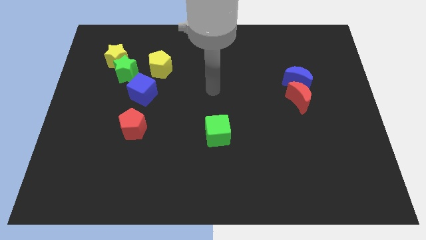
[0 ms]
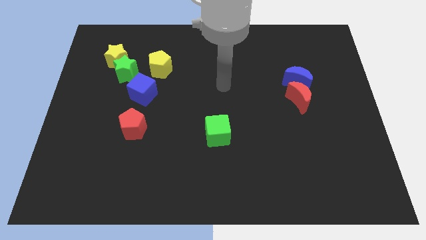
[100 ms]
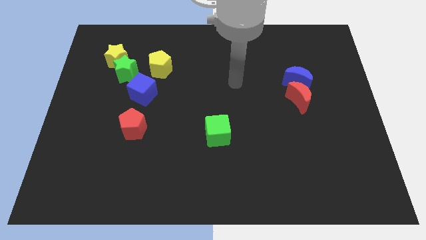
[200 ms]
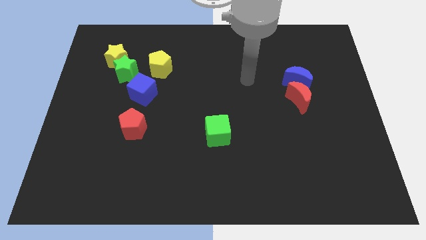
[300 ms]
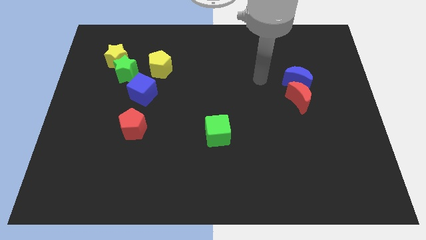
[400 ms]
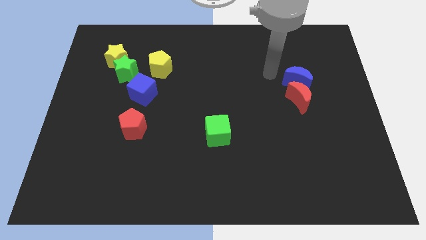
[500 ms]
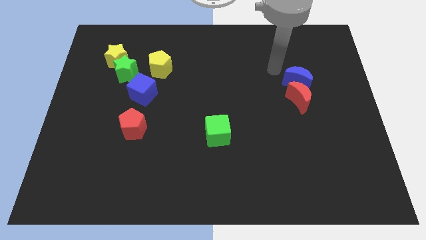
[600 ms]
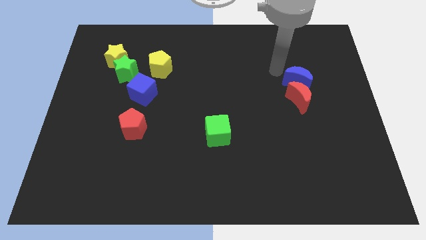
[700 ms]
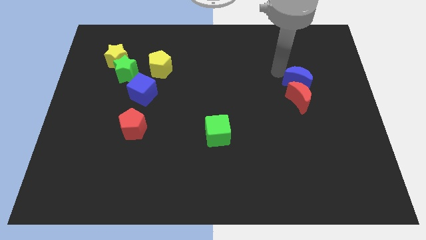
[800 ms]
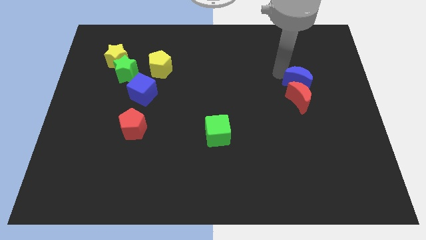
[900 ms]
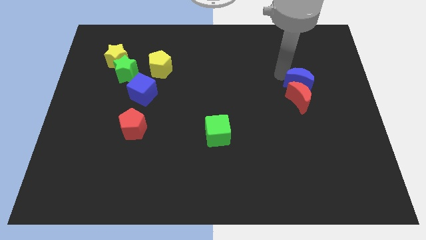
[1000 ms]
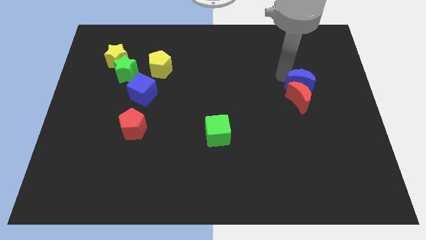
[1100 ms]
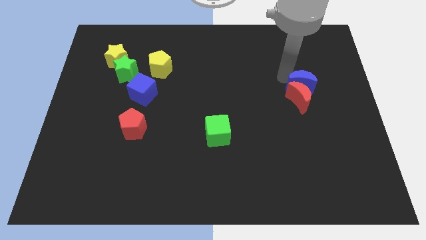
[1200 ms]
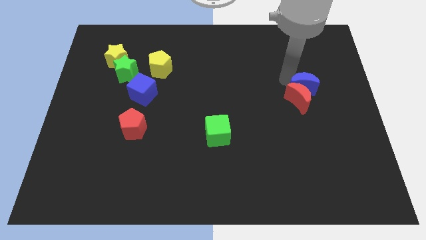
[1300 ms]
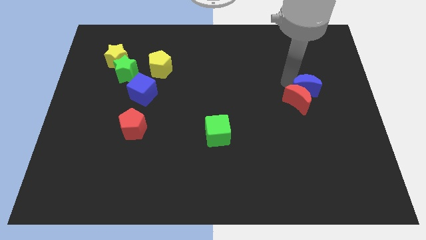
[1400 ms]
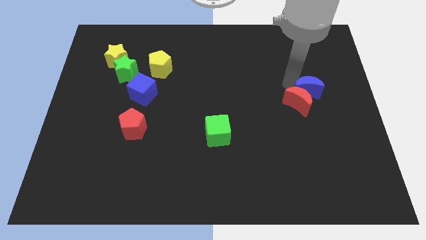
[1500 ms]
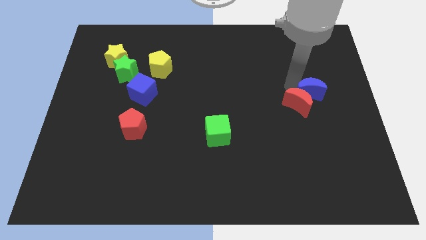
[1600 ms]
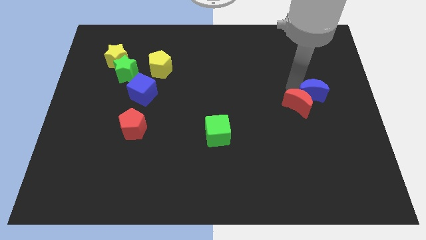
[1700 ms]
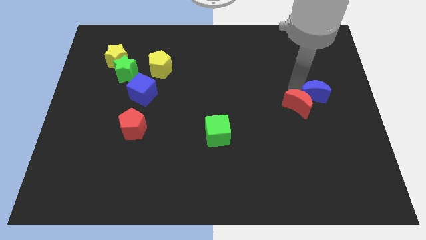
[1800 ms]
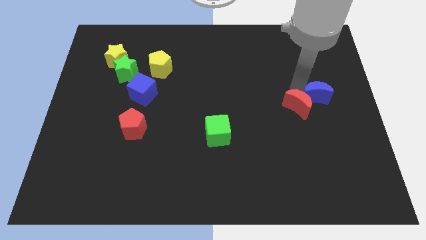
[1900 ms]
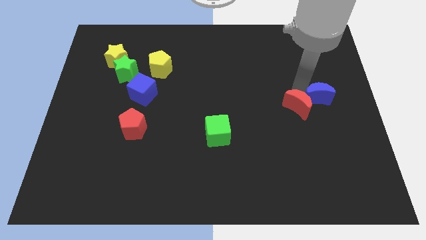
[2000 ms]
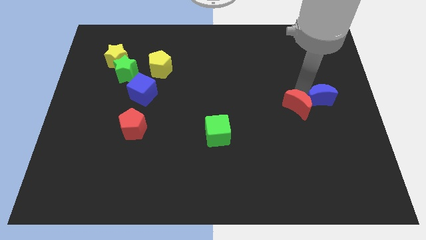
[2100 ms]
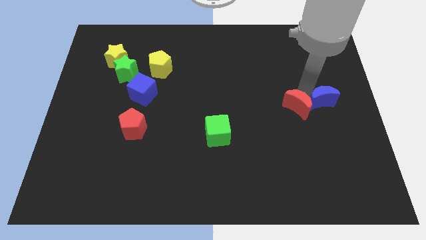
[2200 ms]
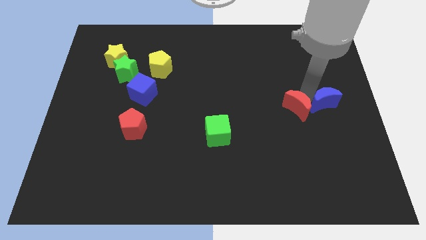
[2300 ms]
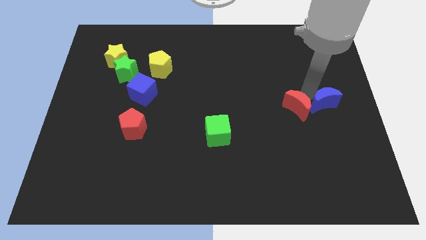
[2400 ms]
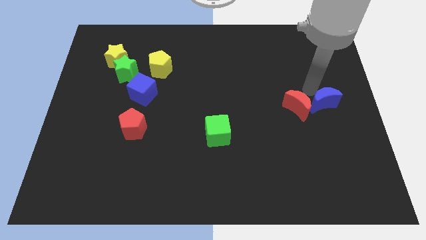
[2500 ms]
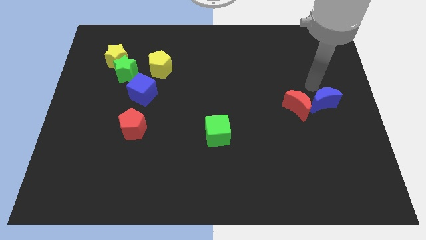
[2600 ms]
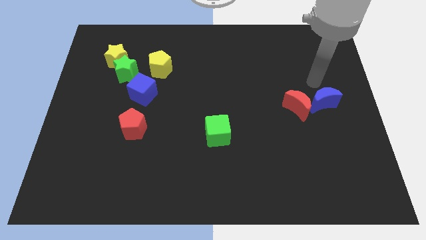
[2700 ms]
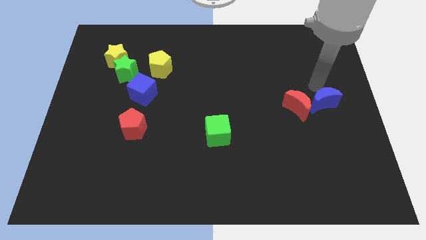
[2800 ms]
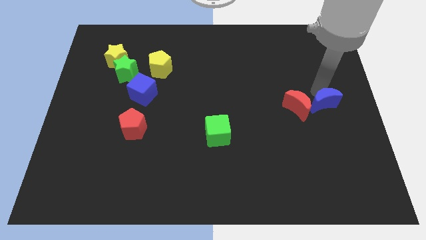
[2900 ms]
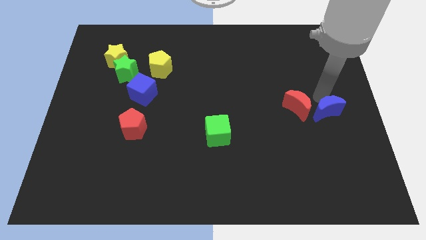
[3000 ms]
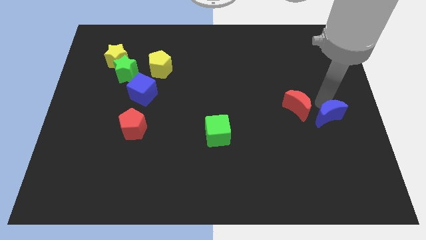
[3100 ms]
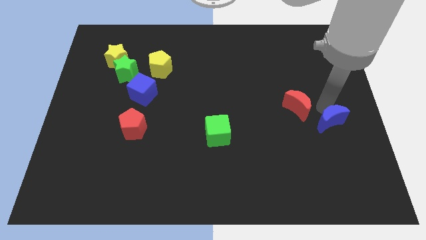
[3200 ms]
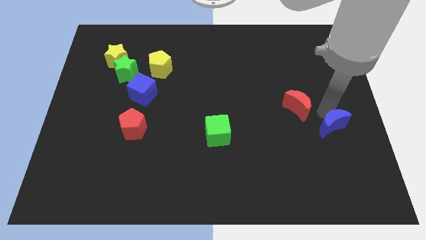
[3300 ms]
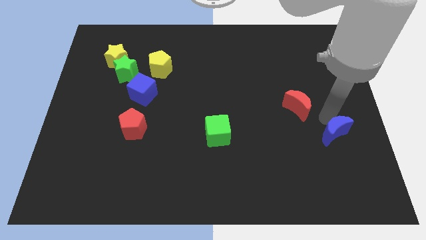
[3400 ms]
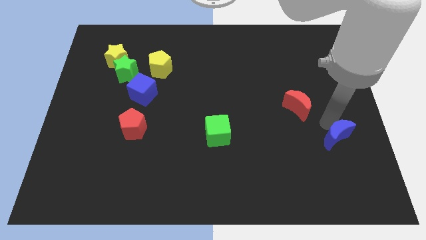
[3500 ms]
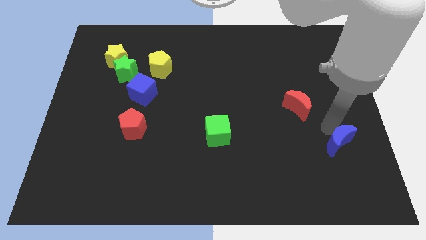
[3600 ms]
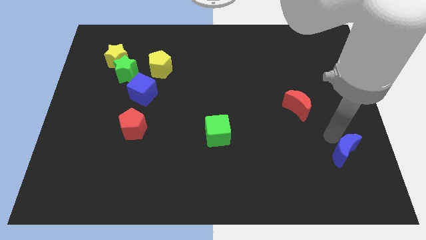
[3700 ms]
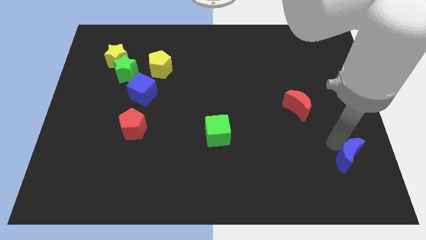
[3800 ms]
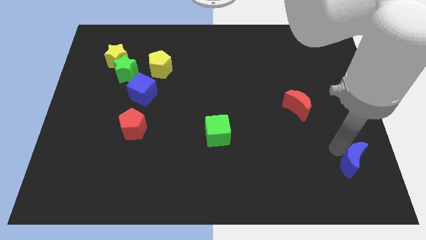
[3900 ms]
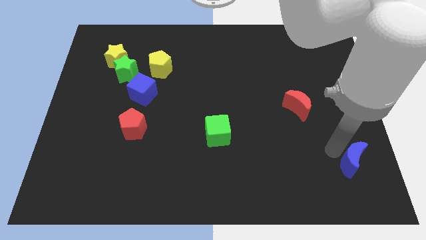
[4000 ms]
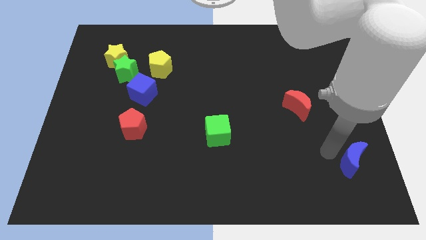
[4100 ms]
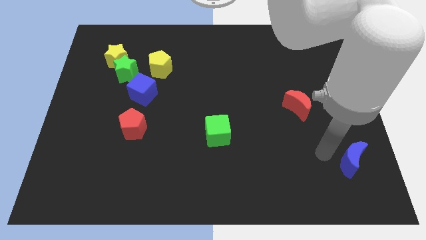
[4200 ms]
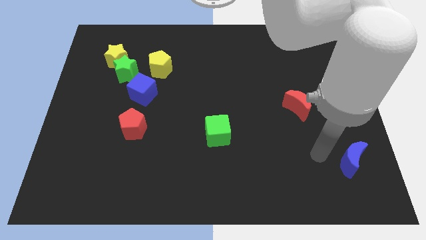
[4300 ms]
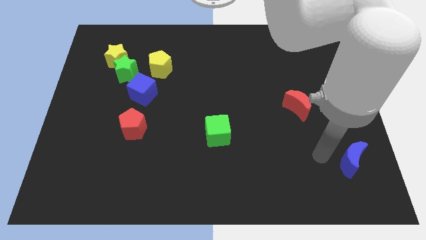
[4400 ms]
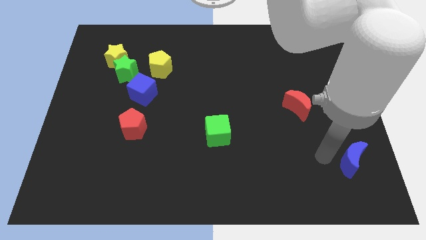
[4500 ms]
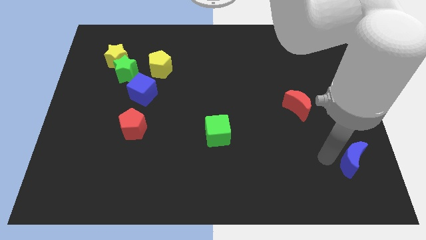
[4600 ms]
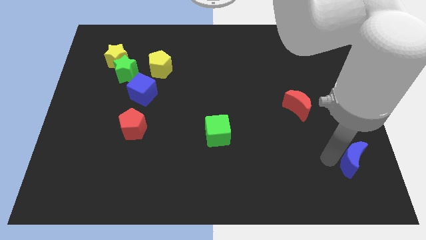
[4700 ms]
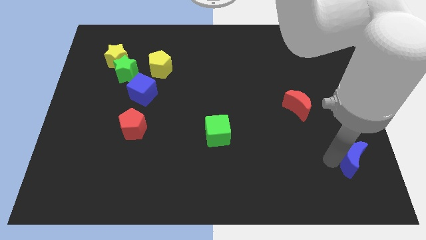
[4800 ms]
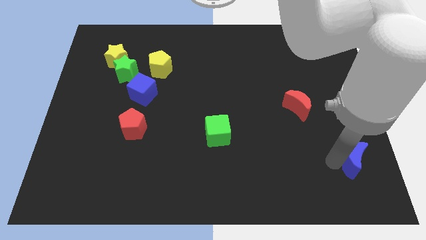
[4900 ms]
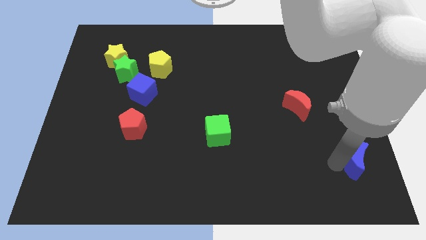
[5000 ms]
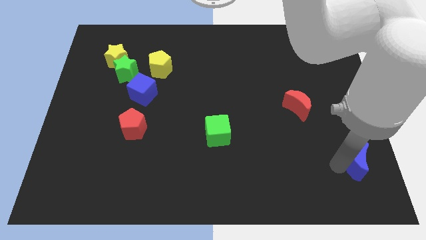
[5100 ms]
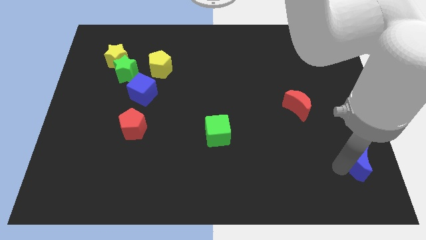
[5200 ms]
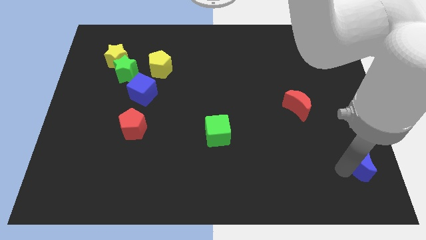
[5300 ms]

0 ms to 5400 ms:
push the blue moon to the bottom right corner

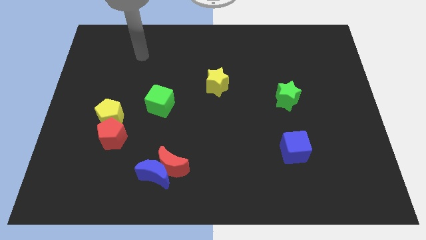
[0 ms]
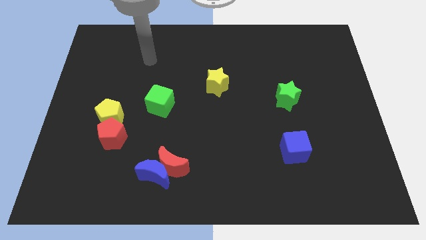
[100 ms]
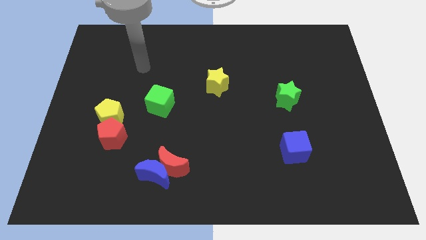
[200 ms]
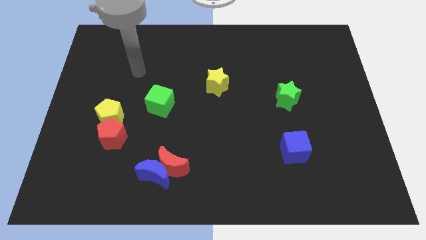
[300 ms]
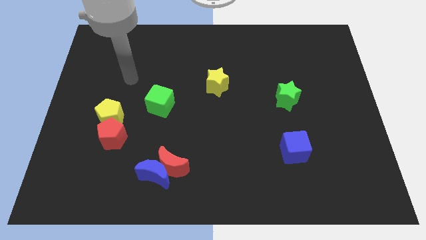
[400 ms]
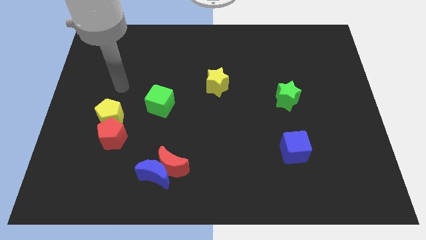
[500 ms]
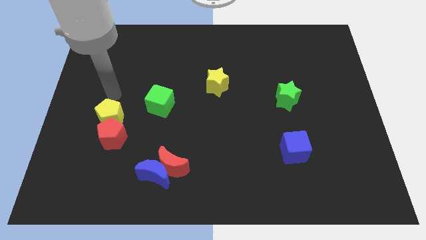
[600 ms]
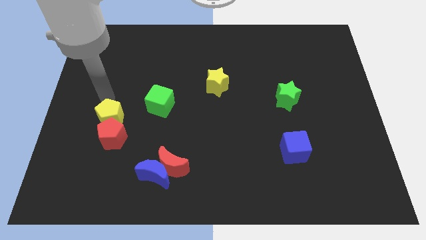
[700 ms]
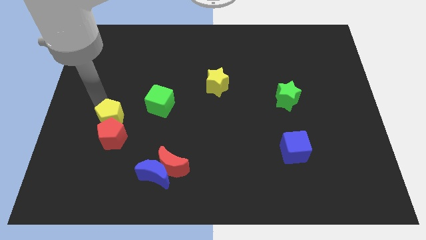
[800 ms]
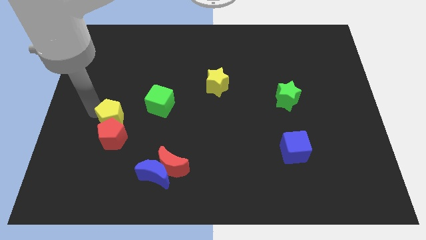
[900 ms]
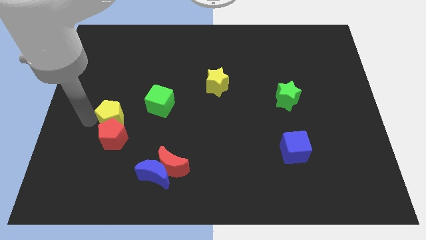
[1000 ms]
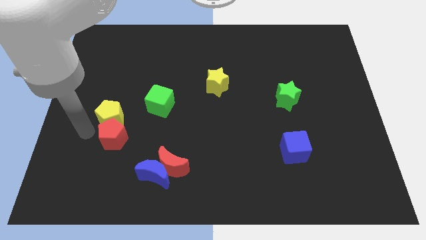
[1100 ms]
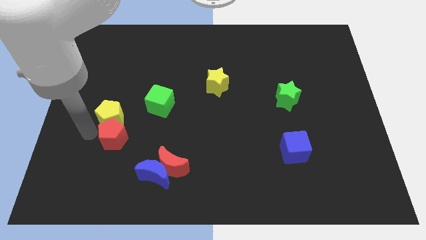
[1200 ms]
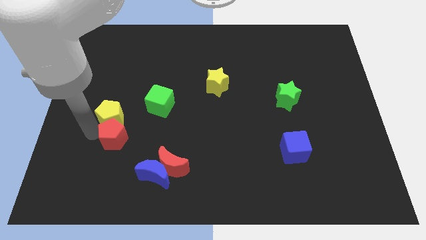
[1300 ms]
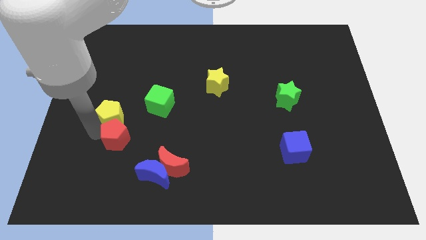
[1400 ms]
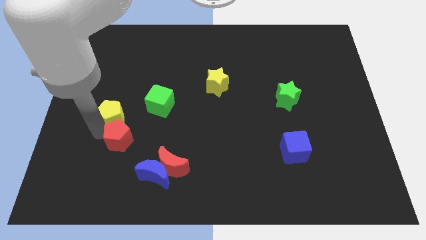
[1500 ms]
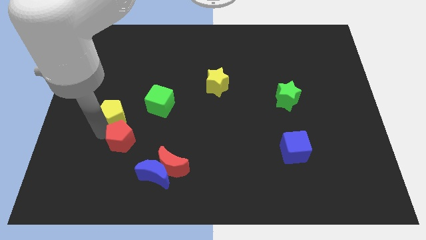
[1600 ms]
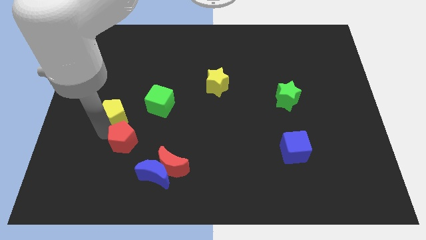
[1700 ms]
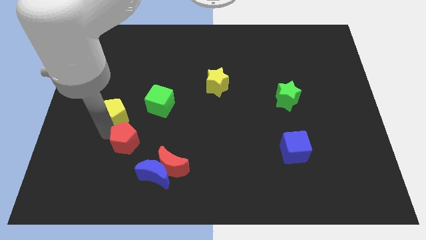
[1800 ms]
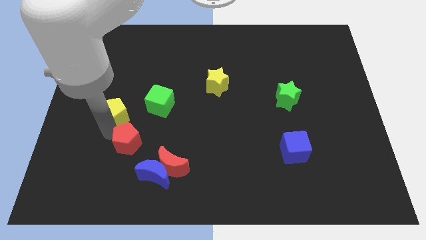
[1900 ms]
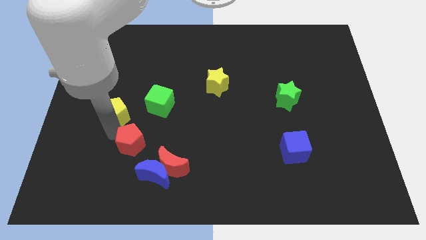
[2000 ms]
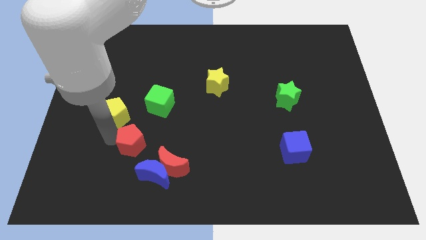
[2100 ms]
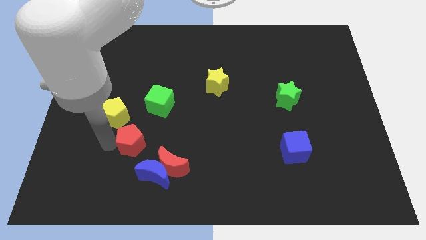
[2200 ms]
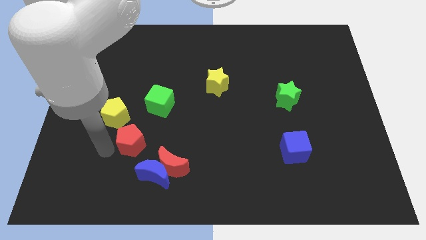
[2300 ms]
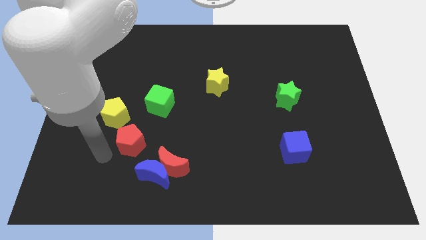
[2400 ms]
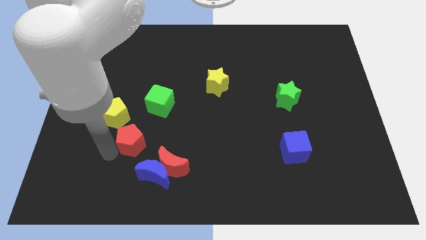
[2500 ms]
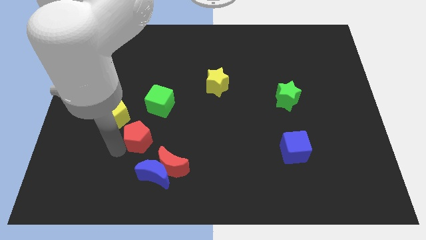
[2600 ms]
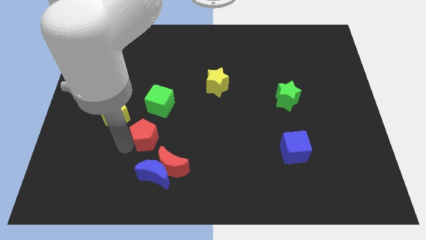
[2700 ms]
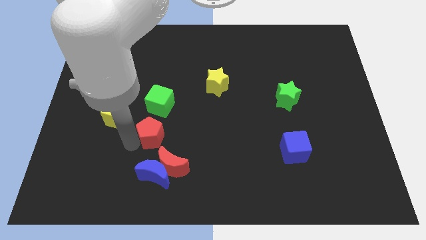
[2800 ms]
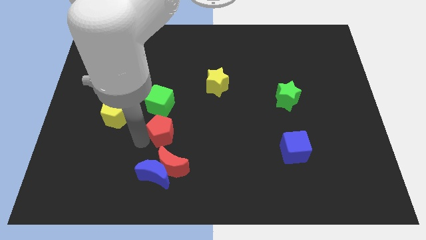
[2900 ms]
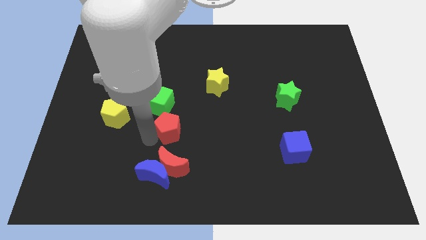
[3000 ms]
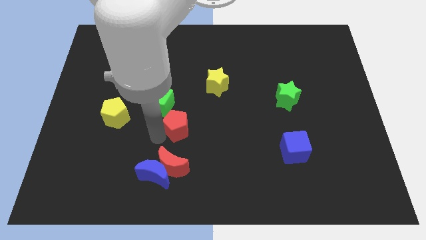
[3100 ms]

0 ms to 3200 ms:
push the red pentagon to the middle of the board
